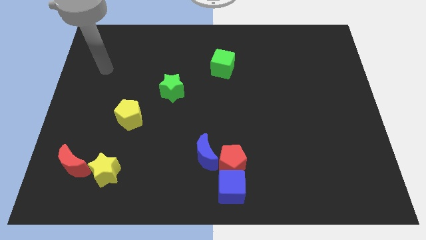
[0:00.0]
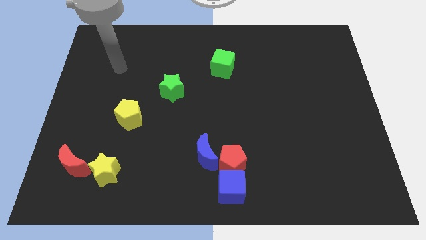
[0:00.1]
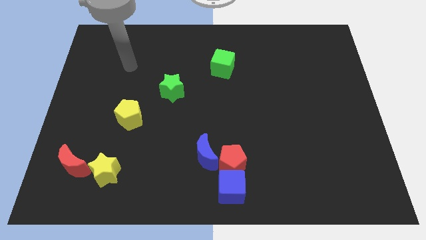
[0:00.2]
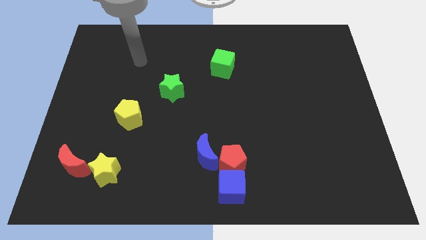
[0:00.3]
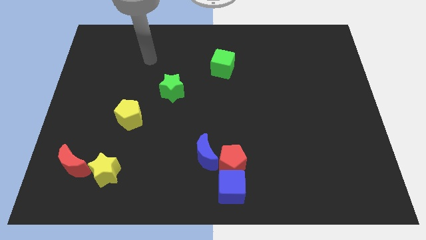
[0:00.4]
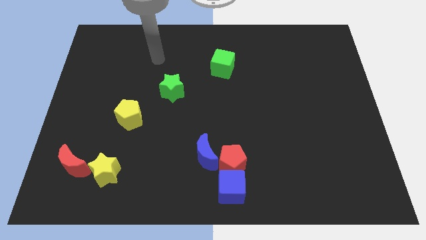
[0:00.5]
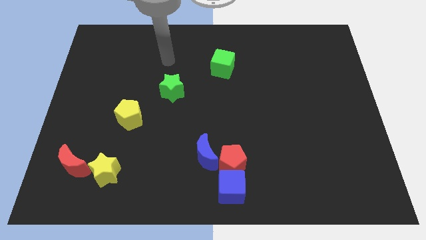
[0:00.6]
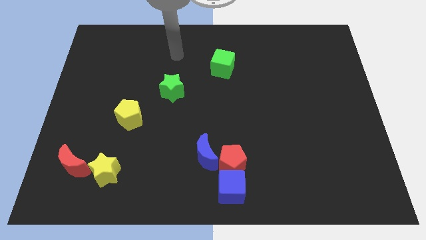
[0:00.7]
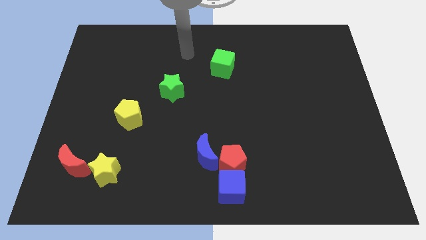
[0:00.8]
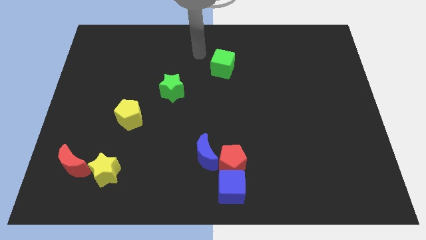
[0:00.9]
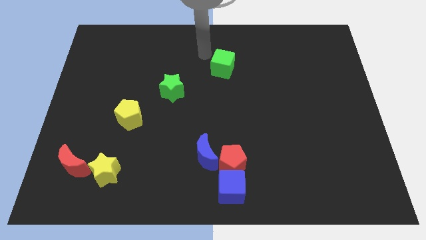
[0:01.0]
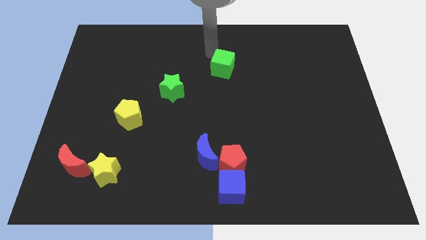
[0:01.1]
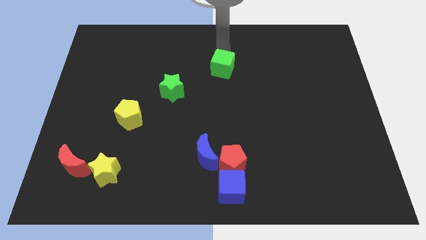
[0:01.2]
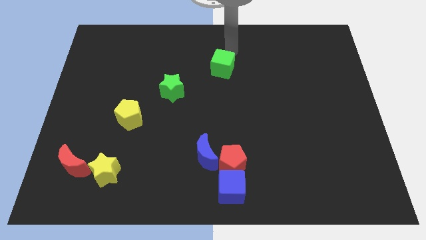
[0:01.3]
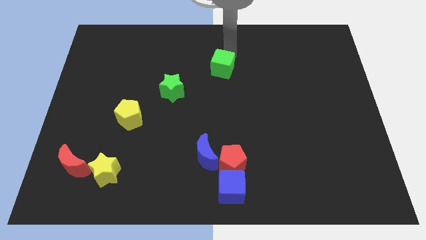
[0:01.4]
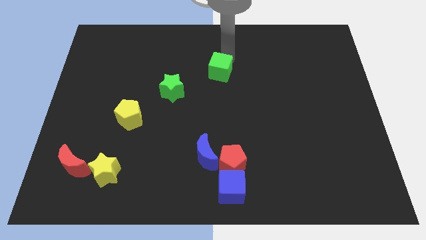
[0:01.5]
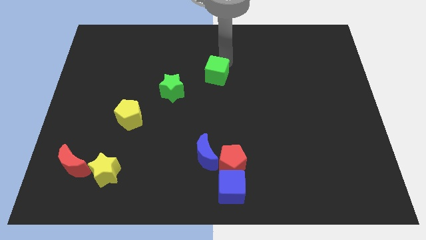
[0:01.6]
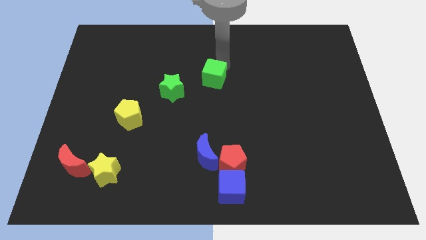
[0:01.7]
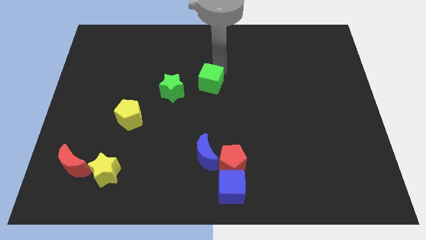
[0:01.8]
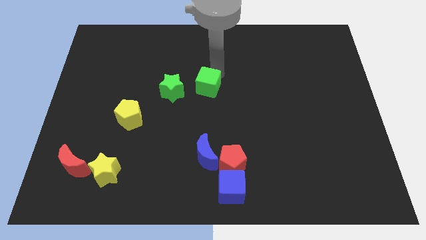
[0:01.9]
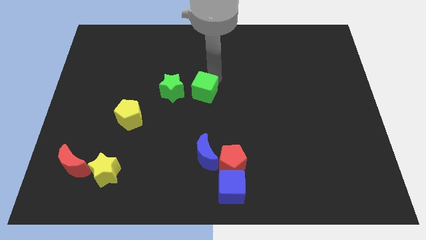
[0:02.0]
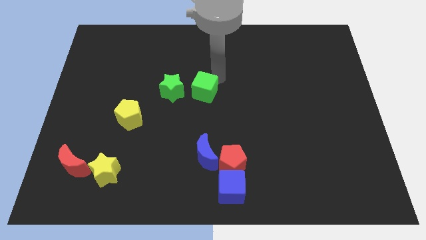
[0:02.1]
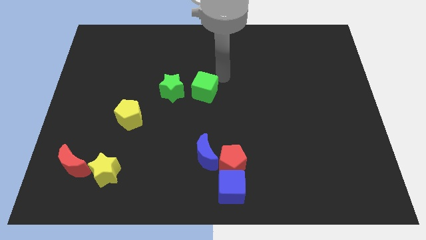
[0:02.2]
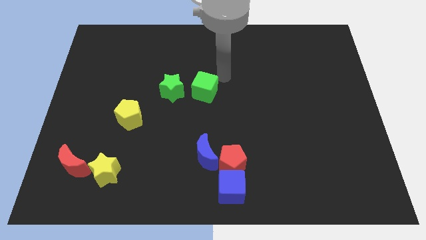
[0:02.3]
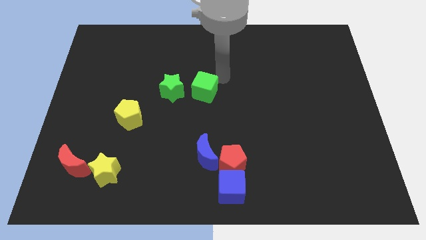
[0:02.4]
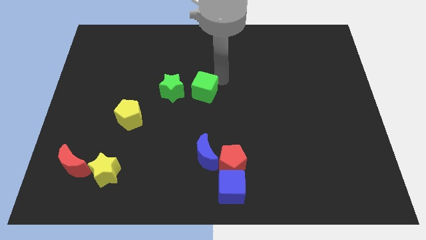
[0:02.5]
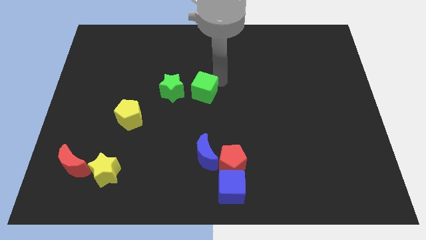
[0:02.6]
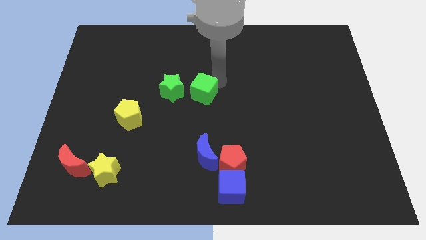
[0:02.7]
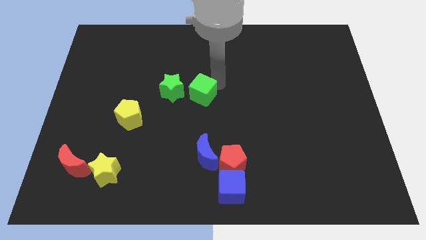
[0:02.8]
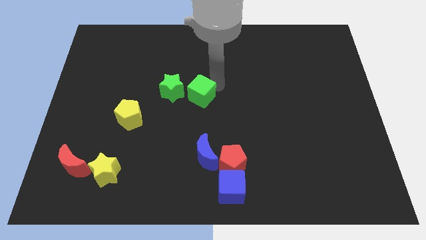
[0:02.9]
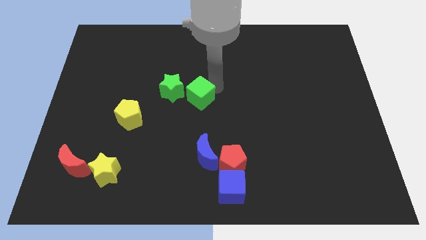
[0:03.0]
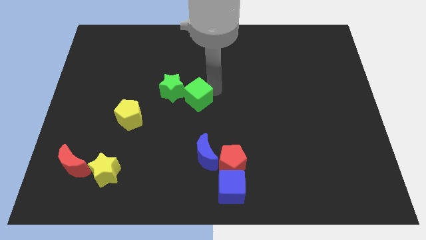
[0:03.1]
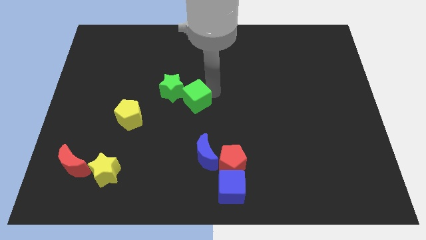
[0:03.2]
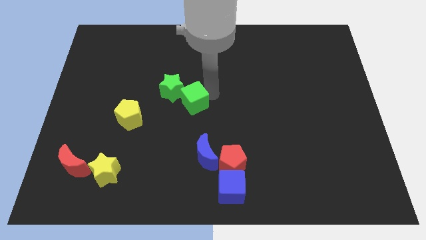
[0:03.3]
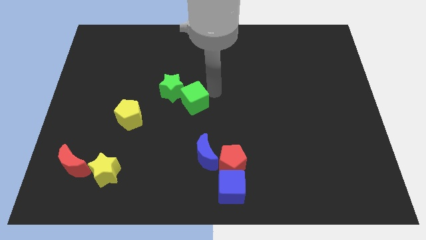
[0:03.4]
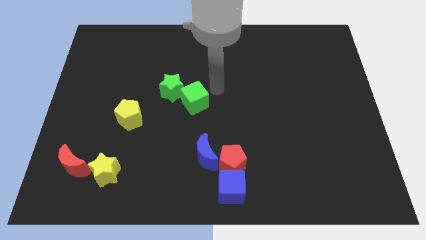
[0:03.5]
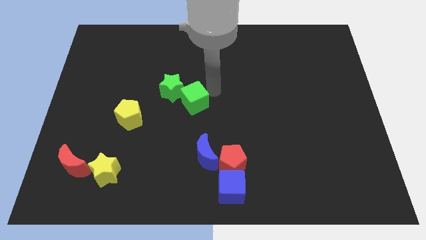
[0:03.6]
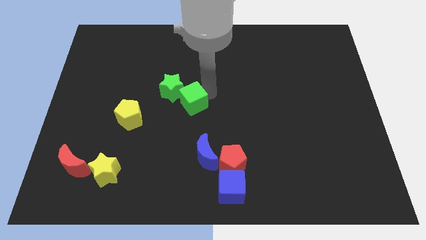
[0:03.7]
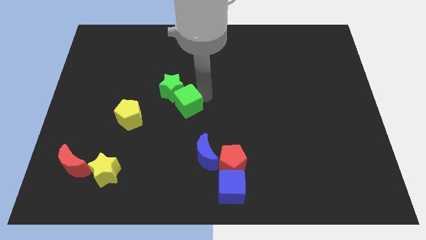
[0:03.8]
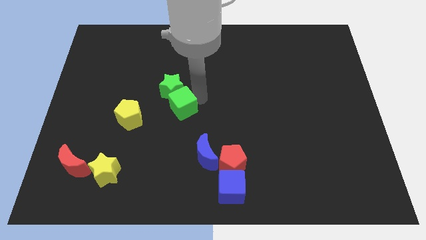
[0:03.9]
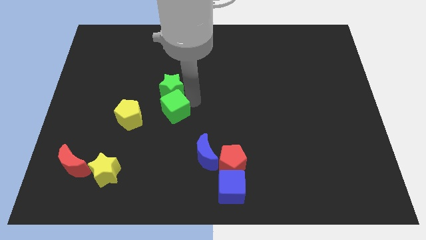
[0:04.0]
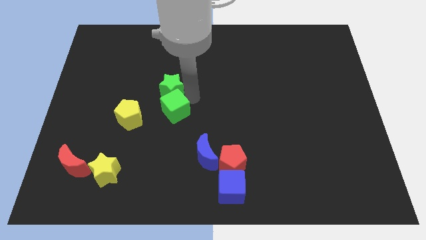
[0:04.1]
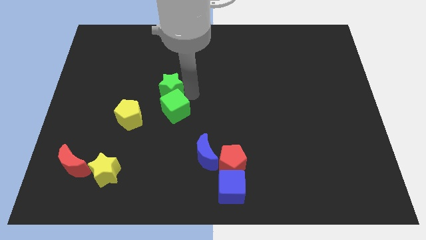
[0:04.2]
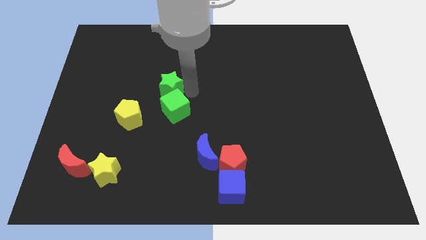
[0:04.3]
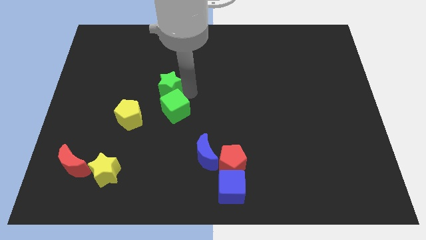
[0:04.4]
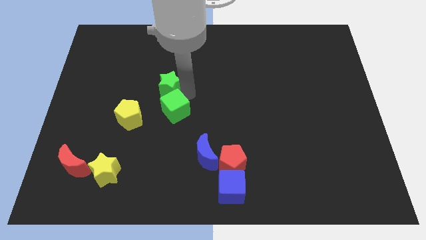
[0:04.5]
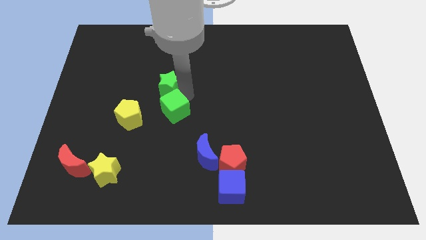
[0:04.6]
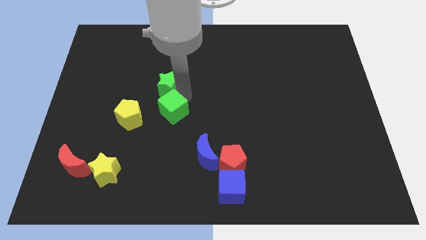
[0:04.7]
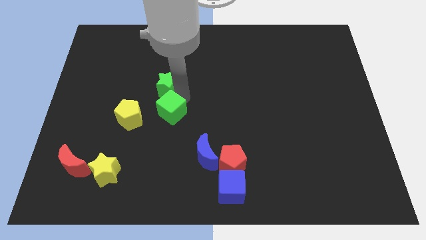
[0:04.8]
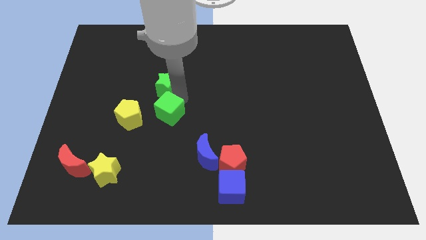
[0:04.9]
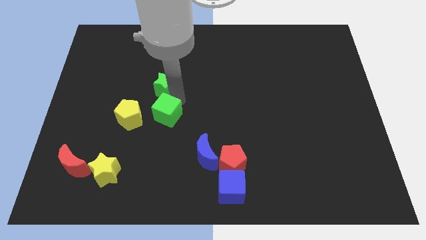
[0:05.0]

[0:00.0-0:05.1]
slide the green cube downwards and then left

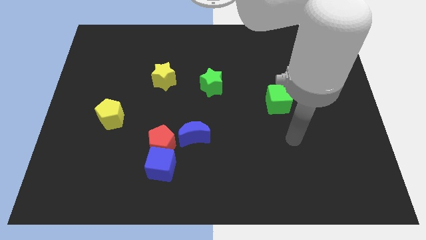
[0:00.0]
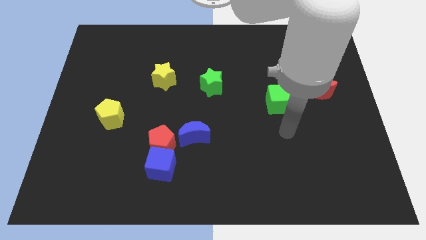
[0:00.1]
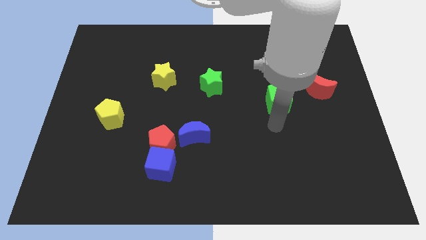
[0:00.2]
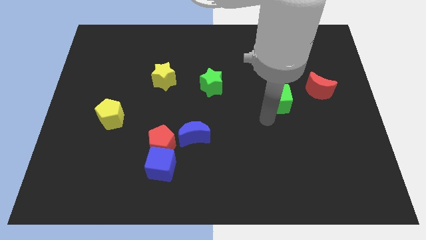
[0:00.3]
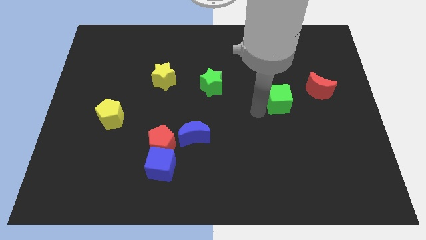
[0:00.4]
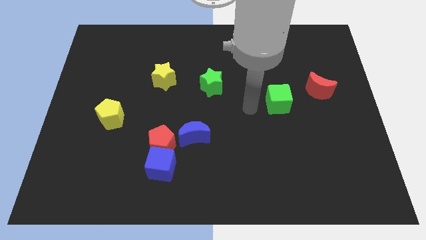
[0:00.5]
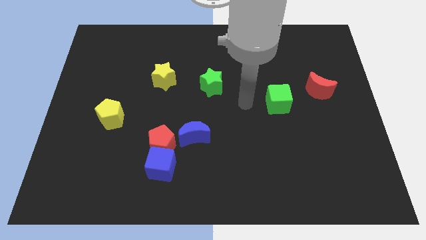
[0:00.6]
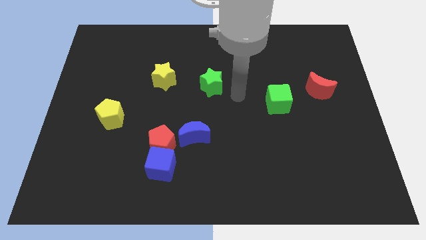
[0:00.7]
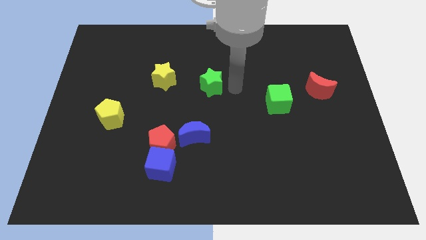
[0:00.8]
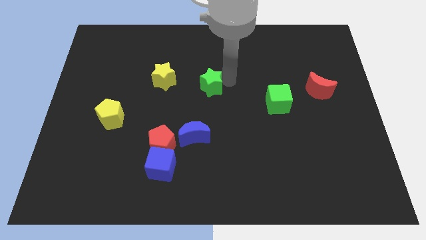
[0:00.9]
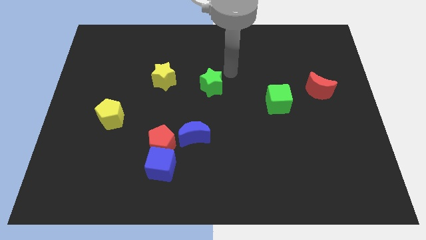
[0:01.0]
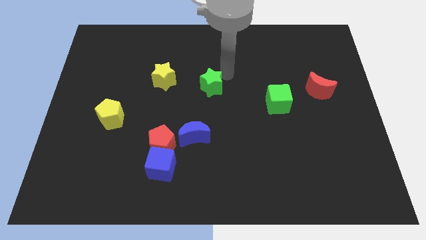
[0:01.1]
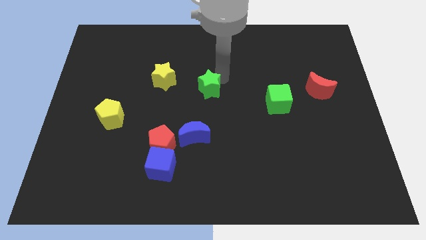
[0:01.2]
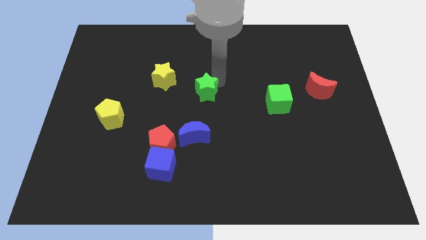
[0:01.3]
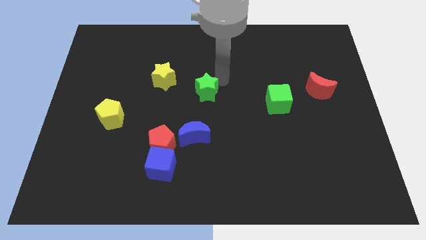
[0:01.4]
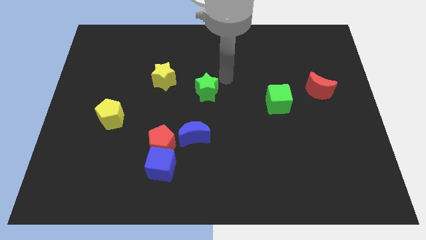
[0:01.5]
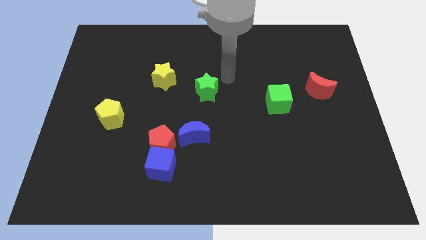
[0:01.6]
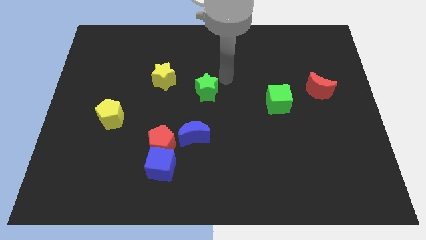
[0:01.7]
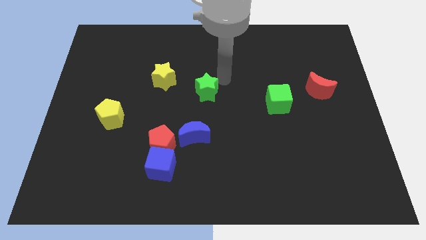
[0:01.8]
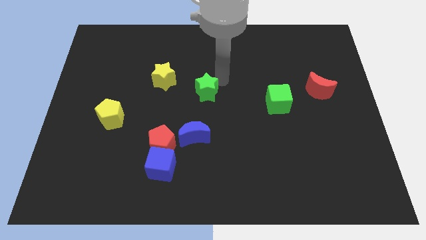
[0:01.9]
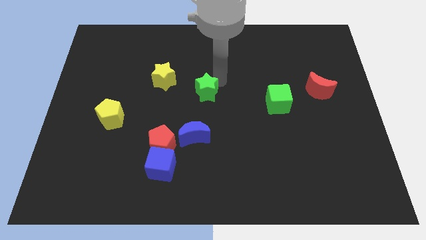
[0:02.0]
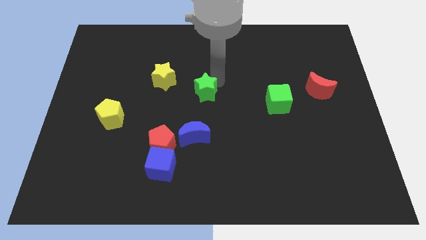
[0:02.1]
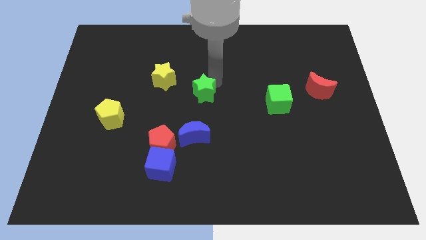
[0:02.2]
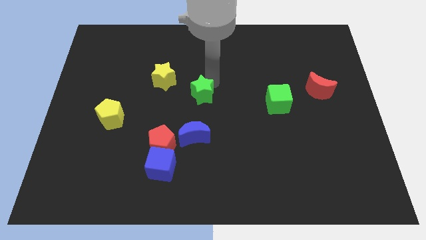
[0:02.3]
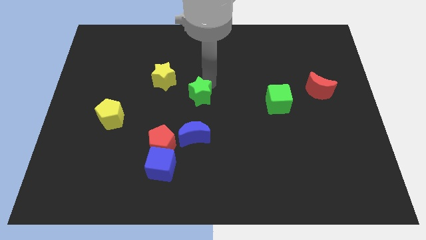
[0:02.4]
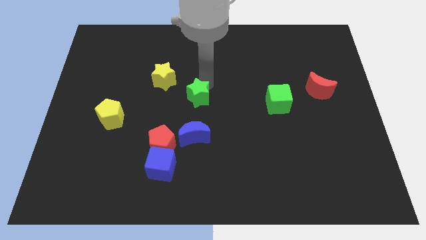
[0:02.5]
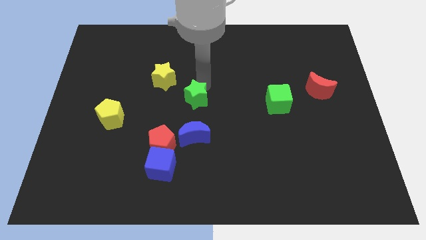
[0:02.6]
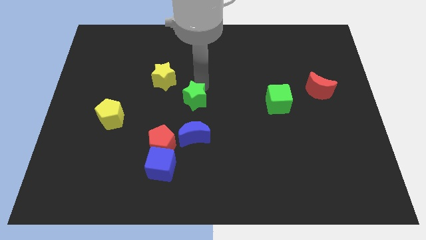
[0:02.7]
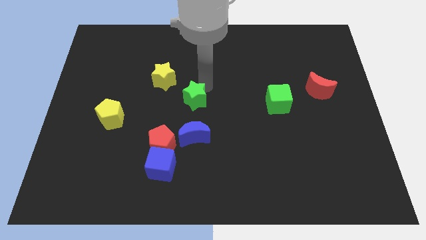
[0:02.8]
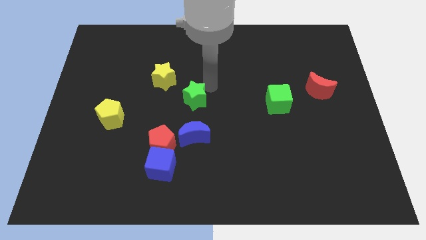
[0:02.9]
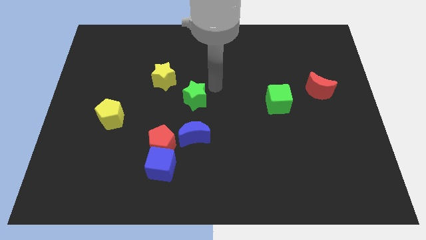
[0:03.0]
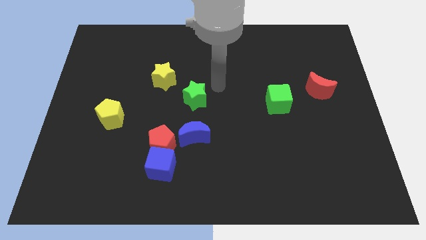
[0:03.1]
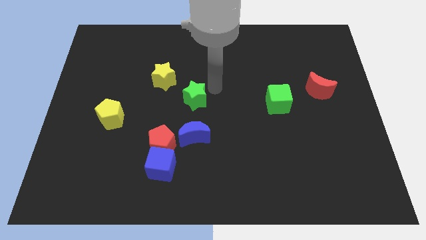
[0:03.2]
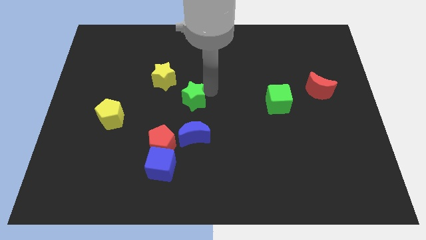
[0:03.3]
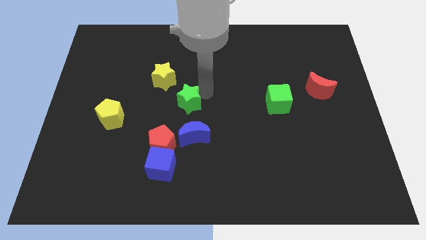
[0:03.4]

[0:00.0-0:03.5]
slide the green star downwards and to the left somewhat
